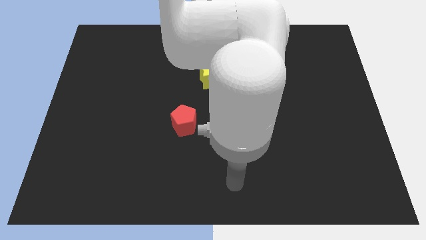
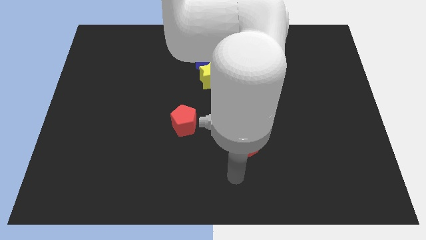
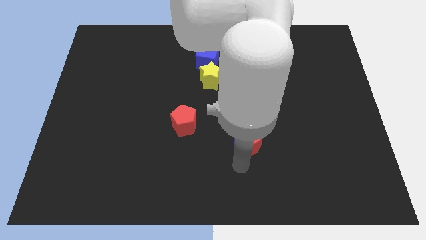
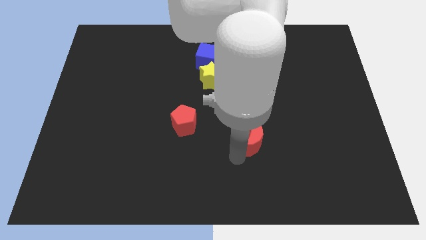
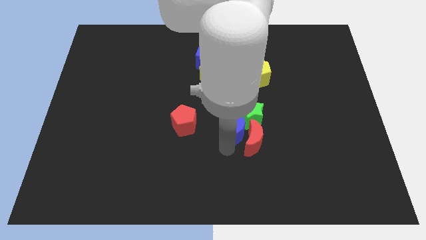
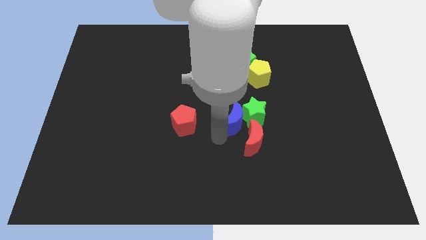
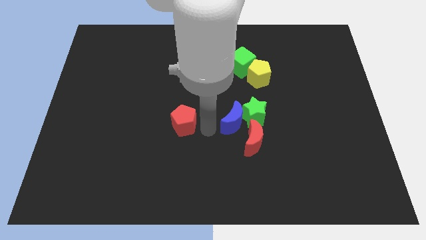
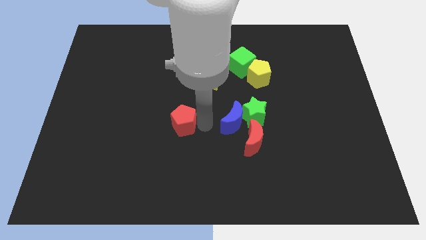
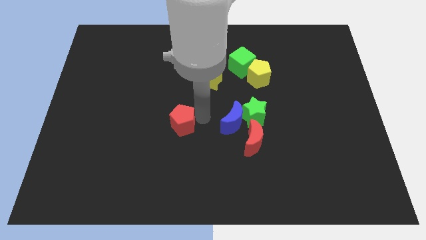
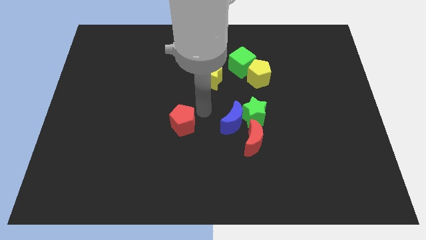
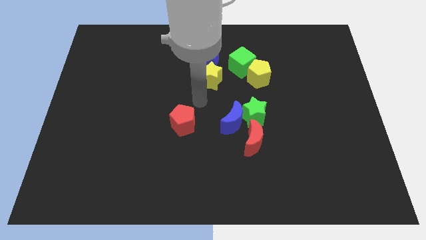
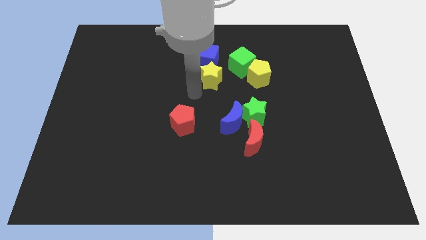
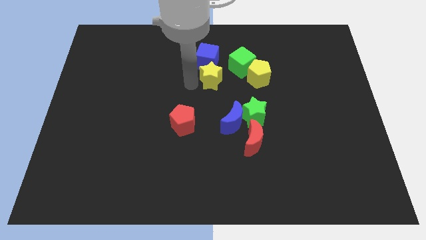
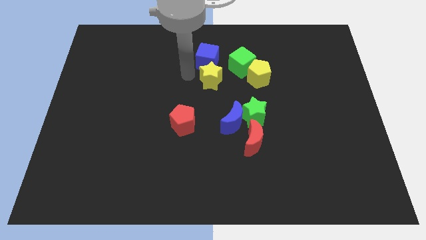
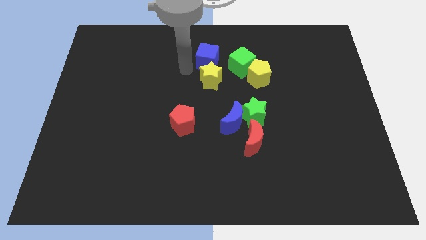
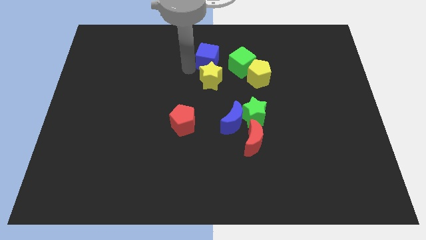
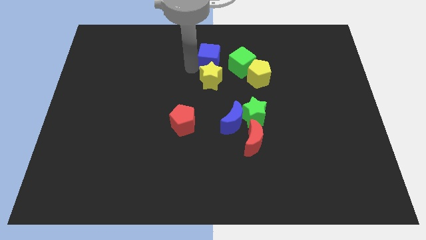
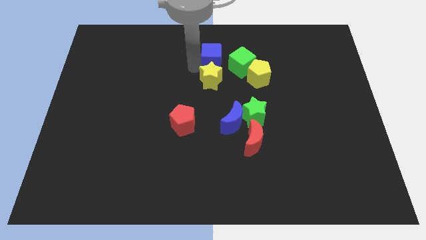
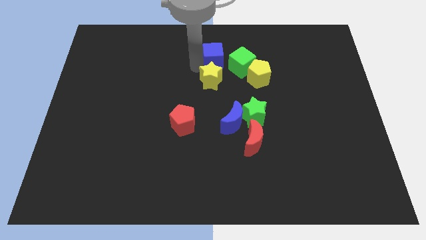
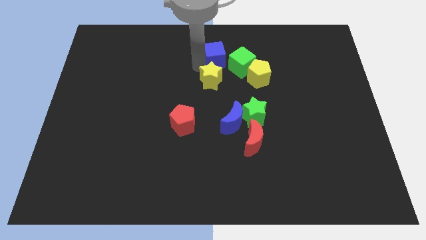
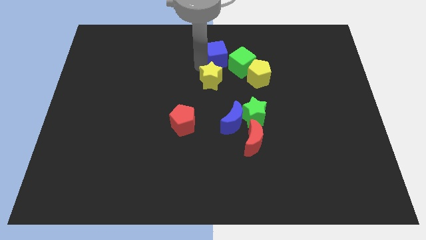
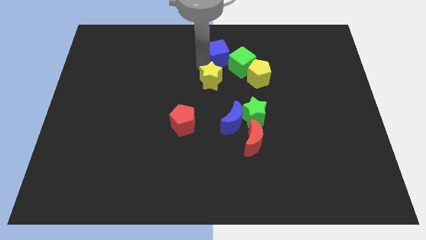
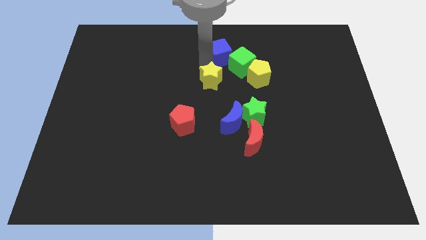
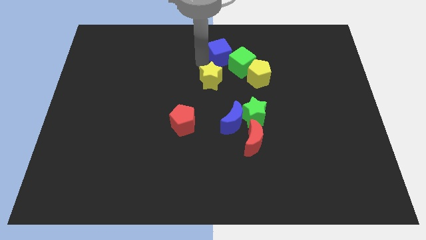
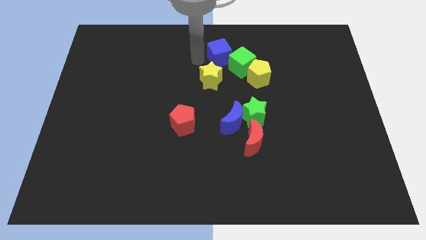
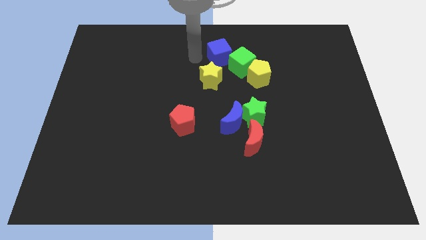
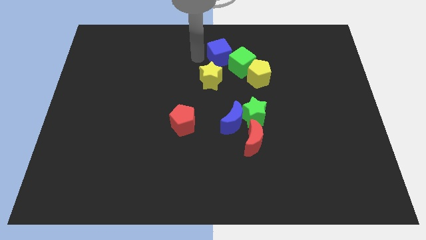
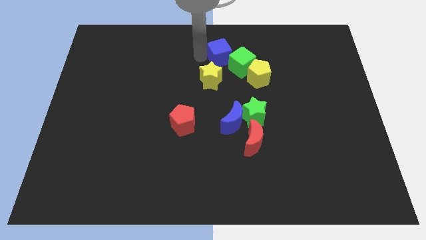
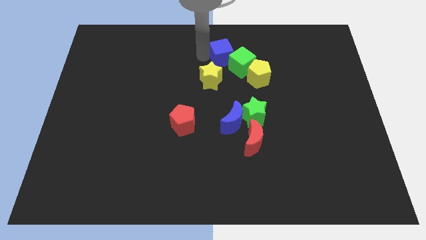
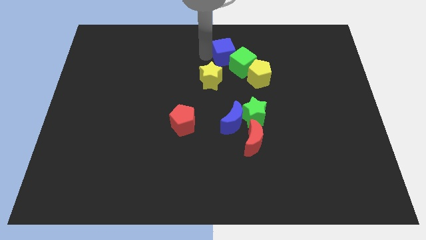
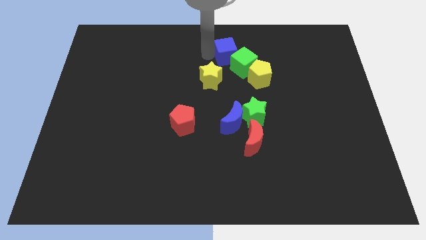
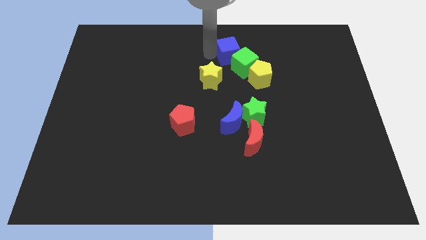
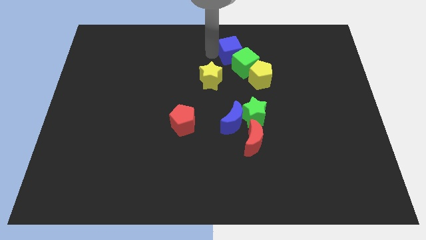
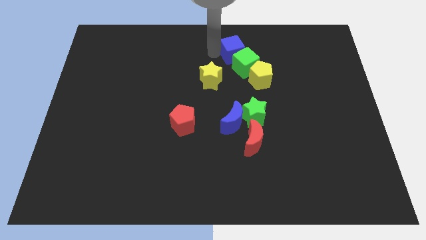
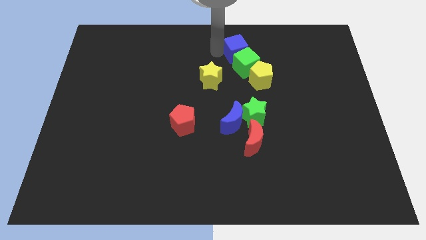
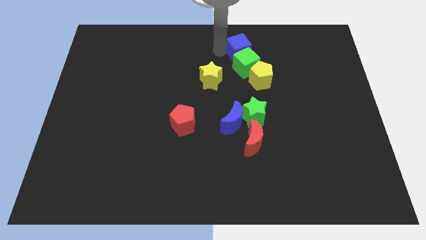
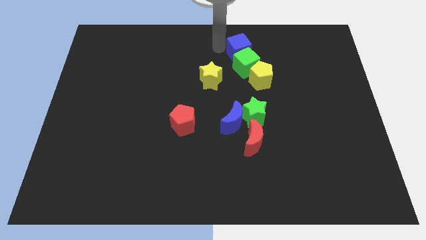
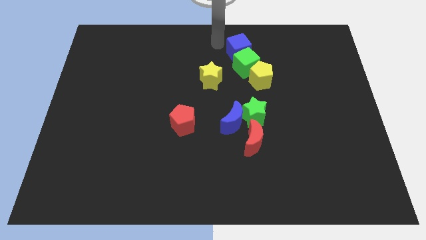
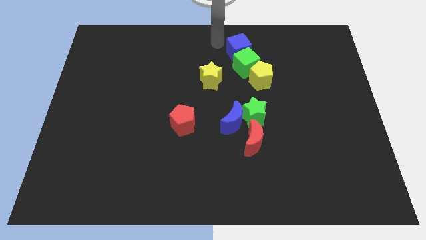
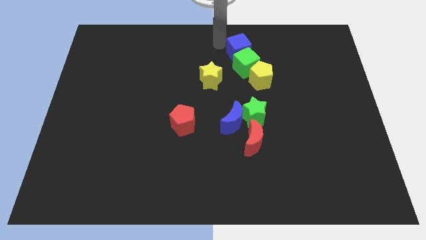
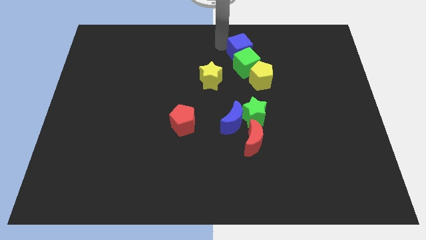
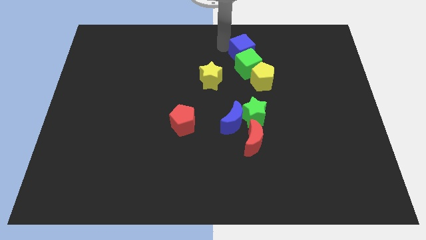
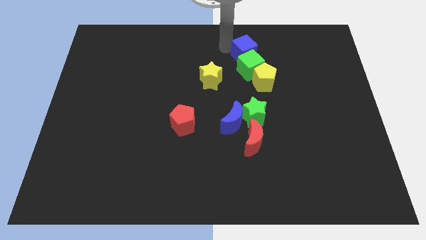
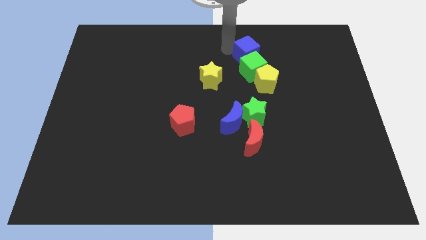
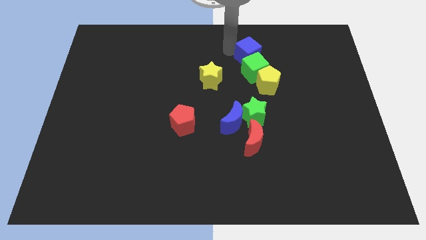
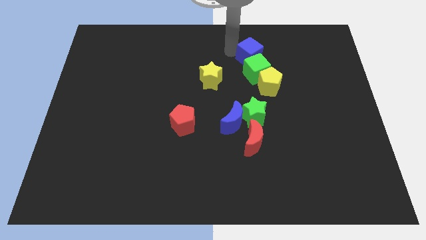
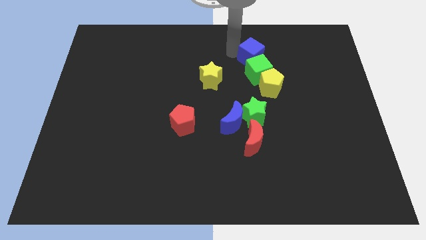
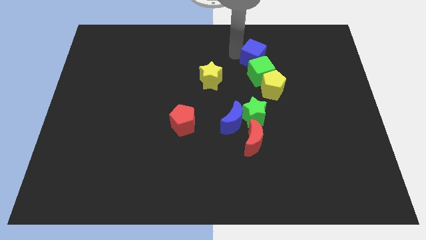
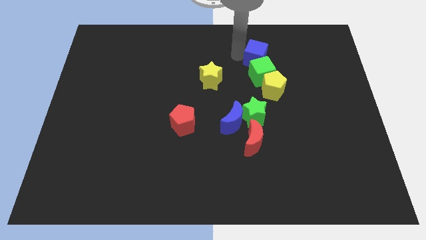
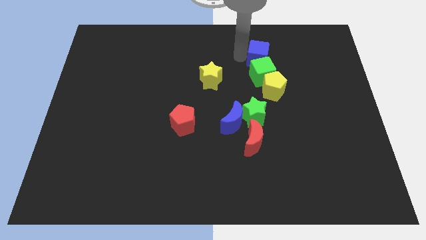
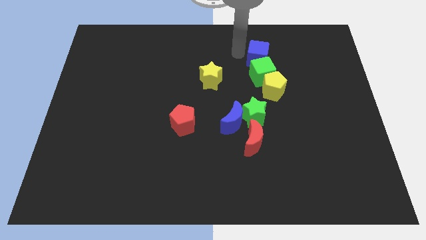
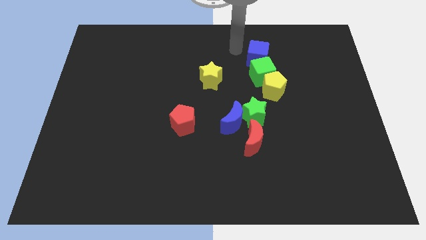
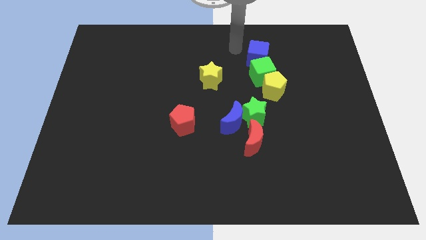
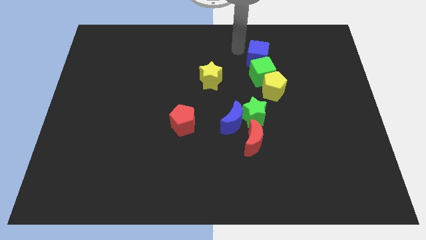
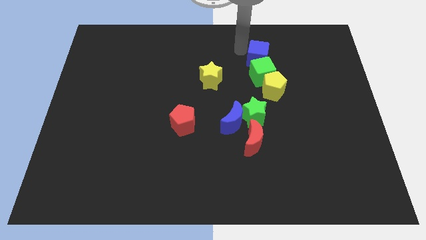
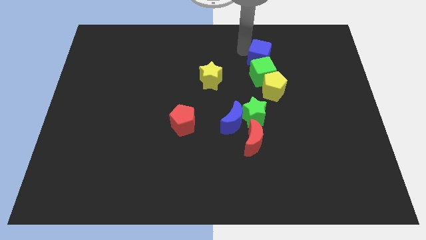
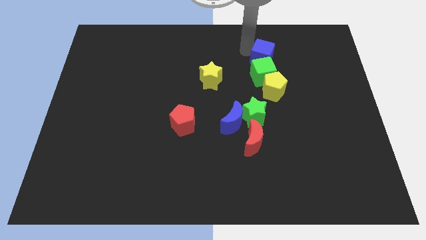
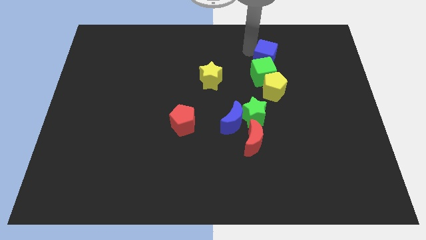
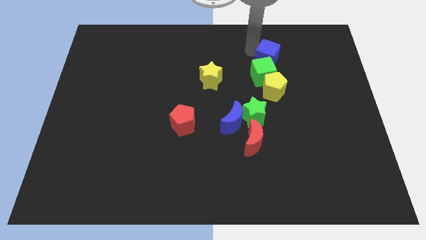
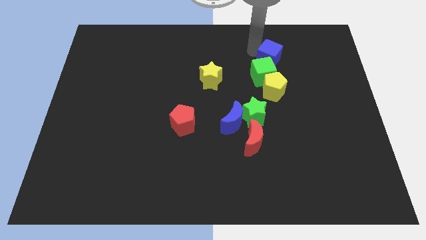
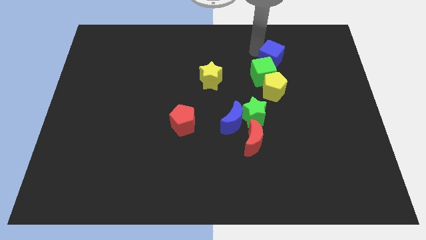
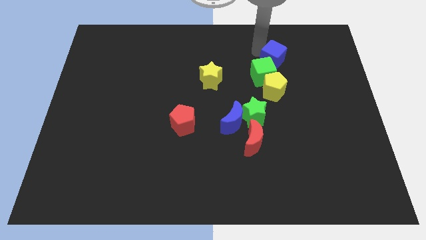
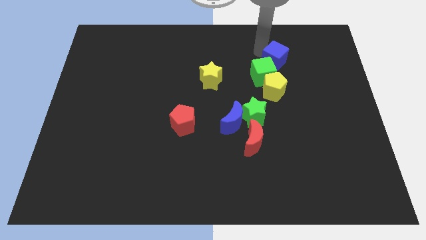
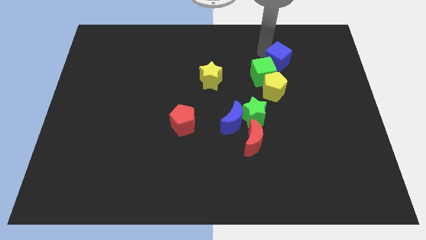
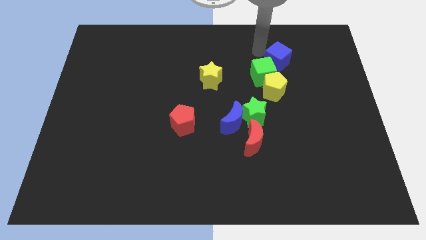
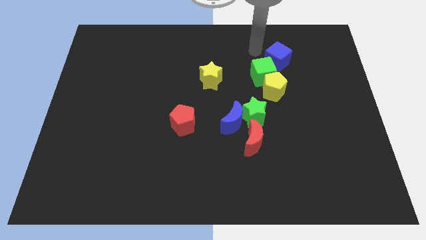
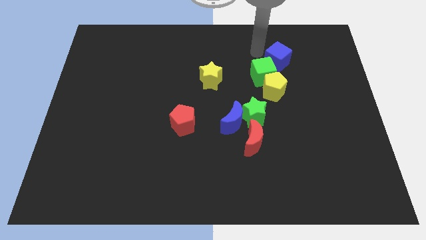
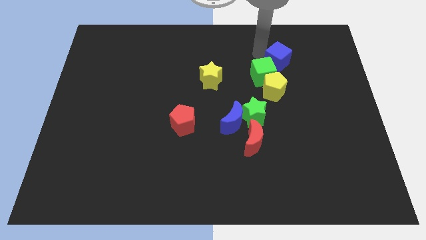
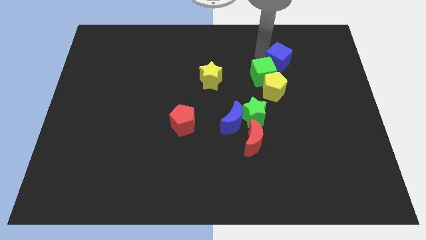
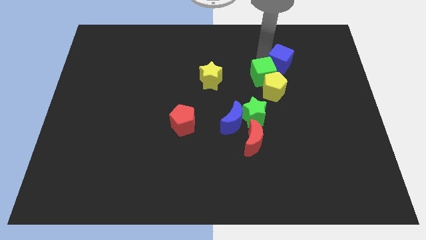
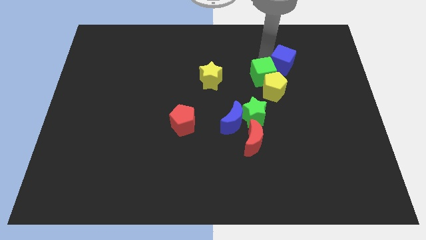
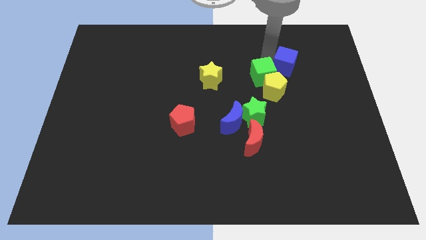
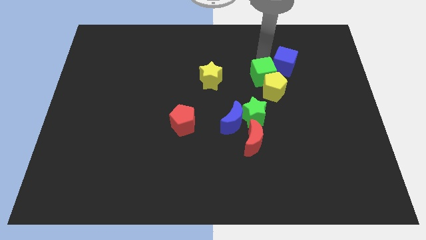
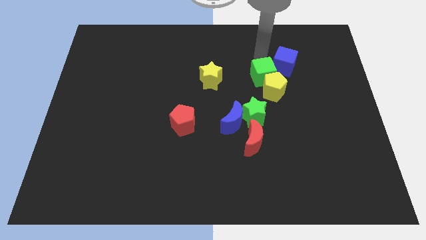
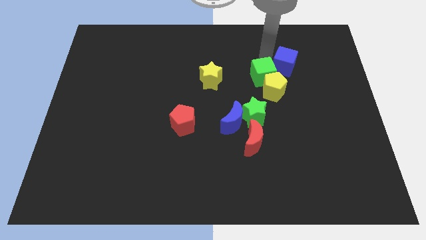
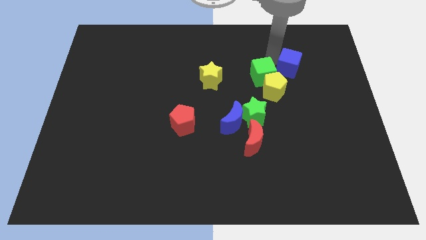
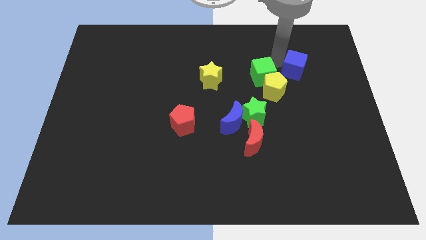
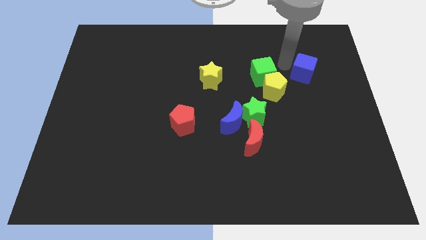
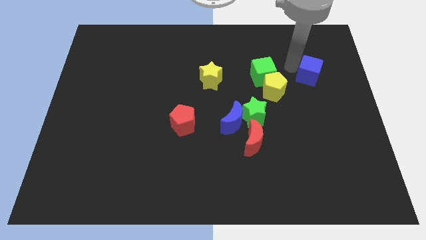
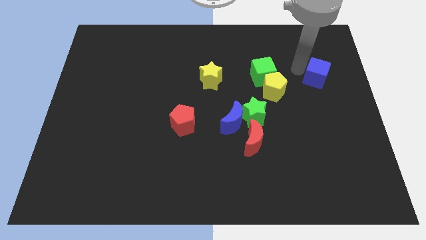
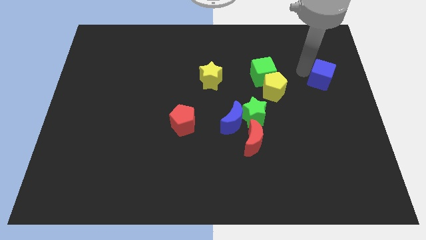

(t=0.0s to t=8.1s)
slide the blue cube to the right side
